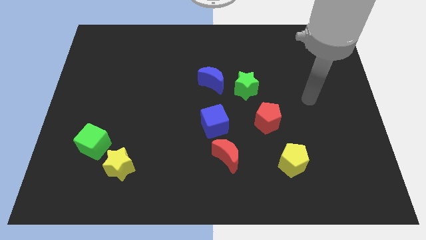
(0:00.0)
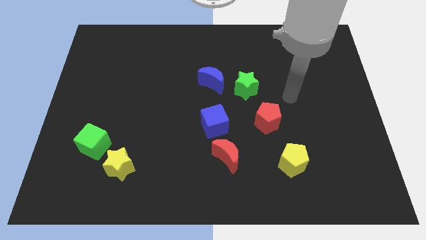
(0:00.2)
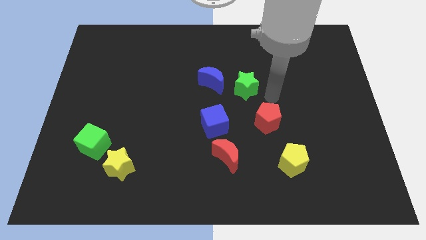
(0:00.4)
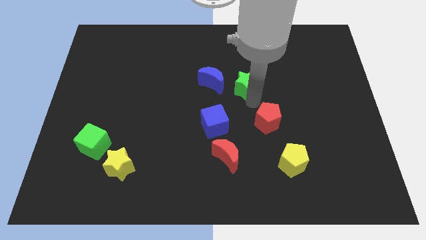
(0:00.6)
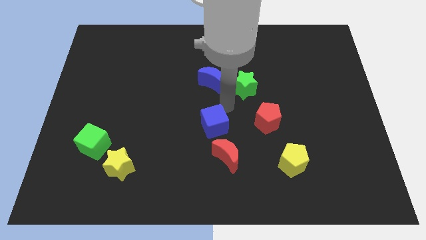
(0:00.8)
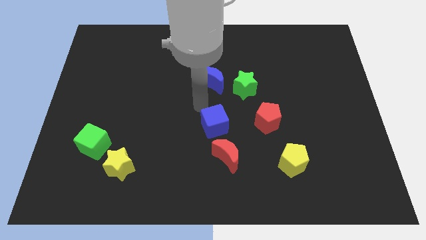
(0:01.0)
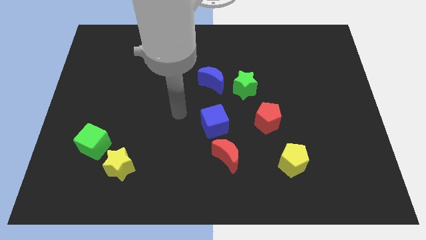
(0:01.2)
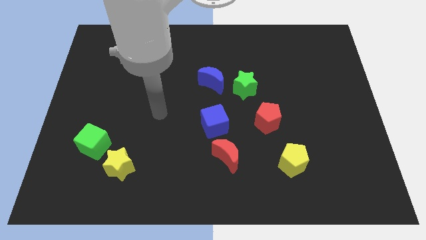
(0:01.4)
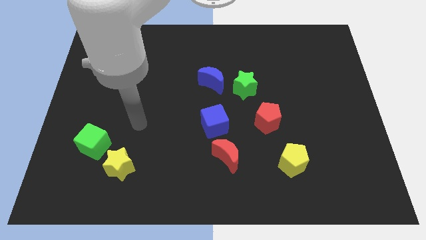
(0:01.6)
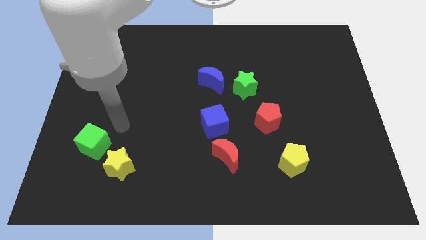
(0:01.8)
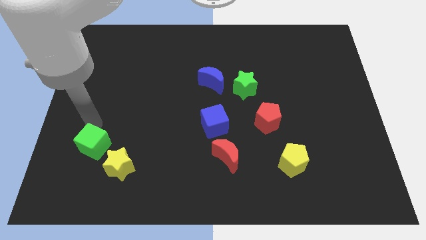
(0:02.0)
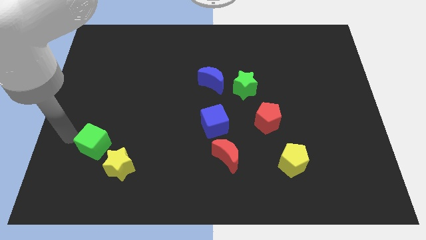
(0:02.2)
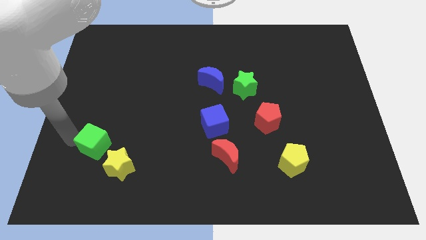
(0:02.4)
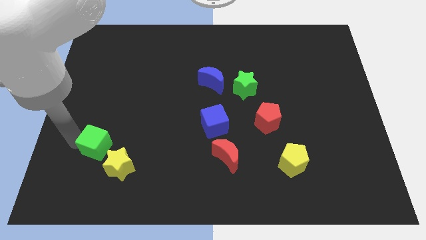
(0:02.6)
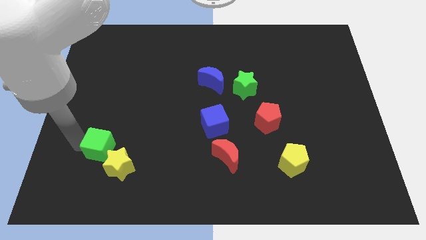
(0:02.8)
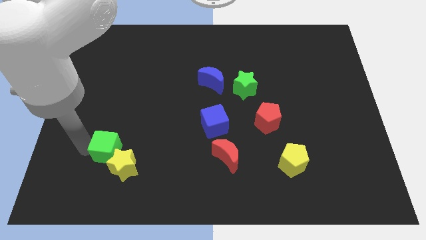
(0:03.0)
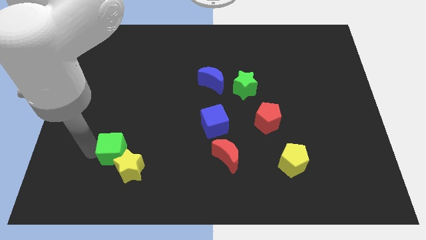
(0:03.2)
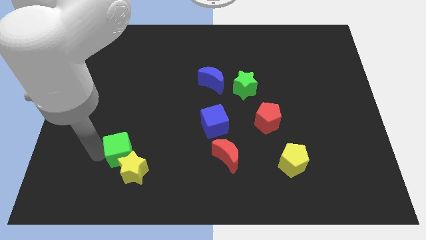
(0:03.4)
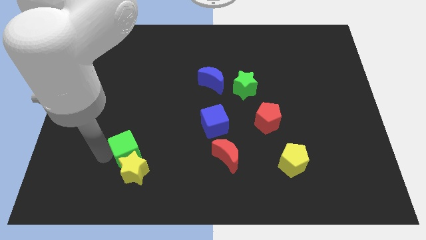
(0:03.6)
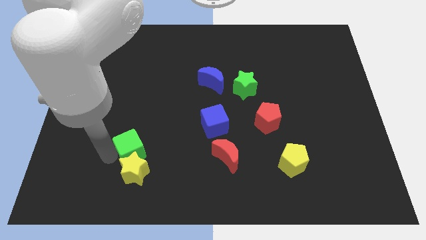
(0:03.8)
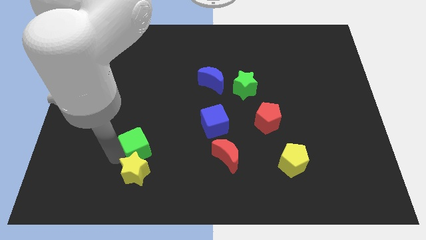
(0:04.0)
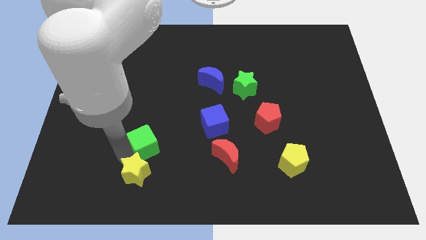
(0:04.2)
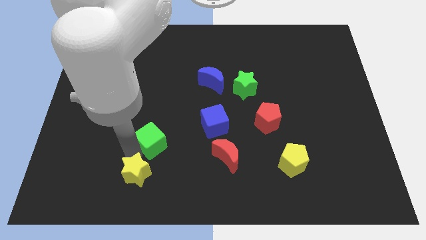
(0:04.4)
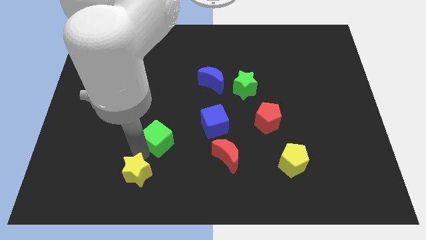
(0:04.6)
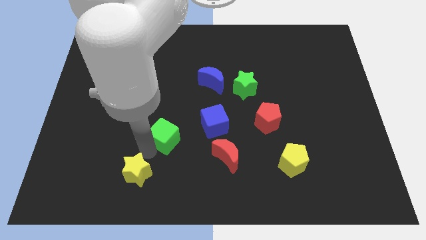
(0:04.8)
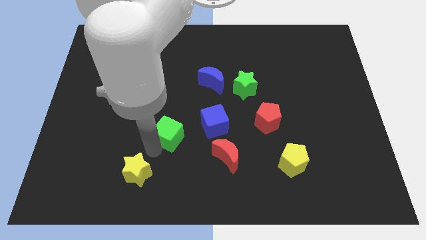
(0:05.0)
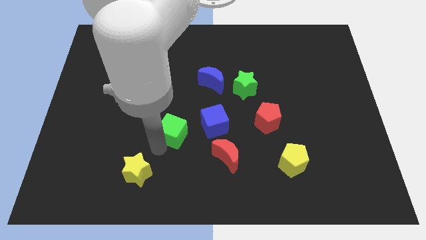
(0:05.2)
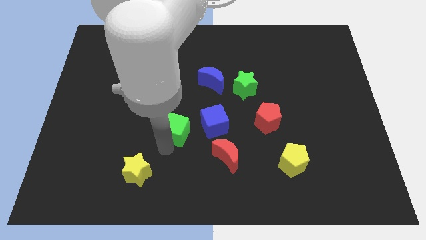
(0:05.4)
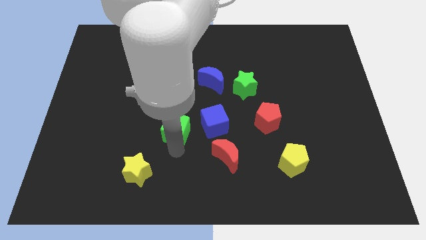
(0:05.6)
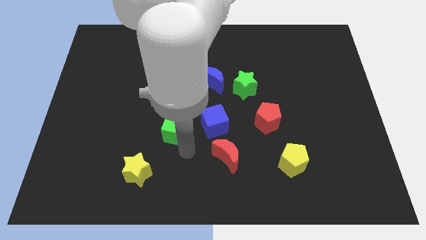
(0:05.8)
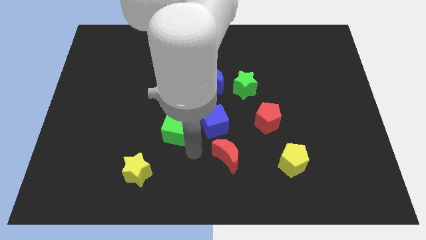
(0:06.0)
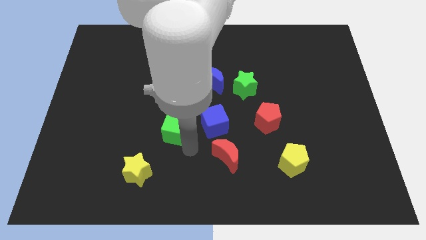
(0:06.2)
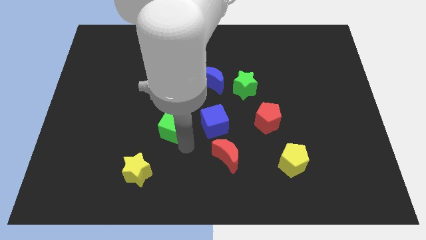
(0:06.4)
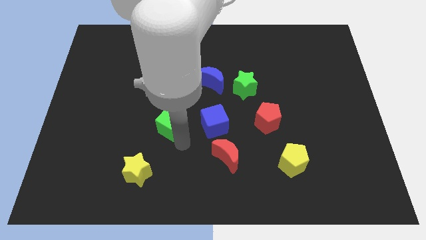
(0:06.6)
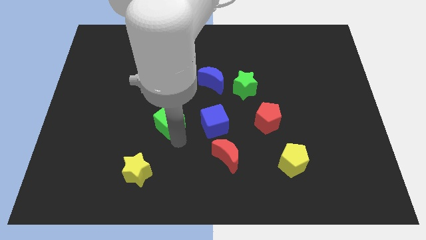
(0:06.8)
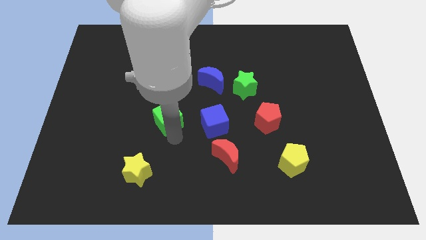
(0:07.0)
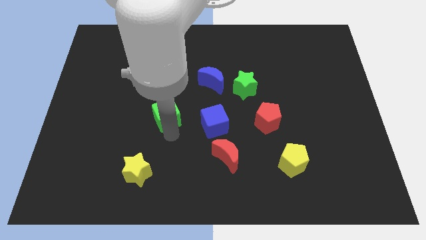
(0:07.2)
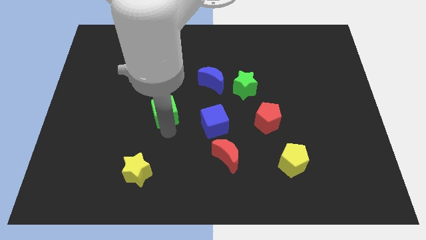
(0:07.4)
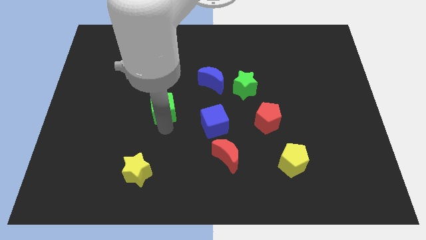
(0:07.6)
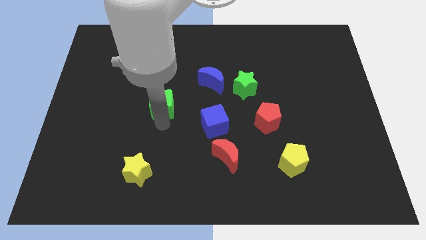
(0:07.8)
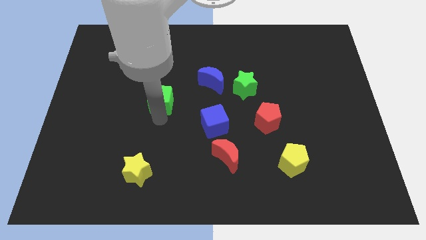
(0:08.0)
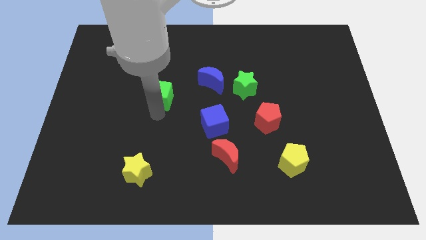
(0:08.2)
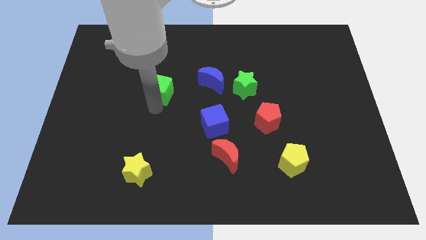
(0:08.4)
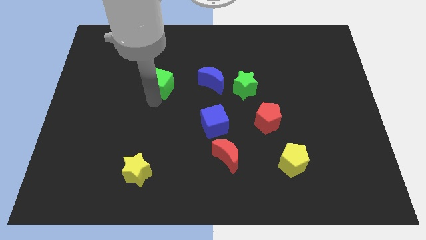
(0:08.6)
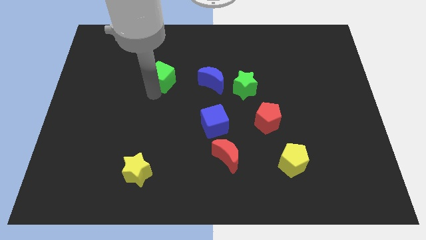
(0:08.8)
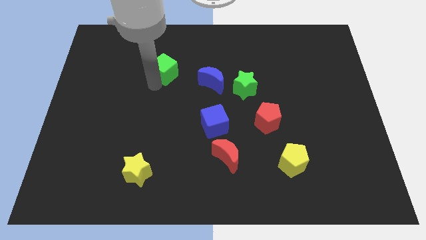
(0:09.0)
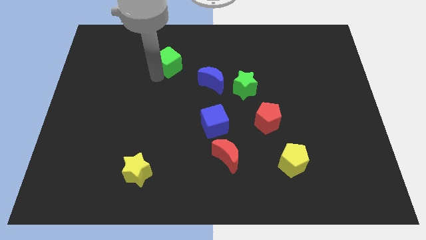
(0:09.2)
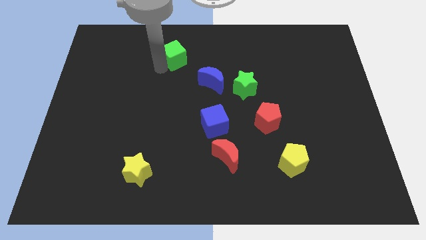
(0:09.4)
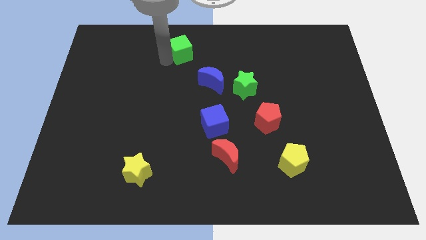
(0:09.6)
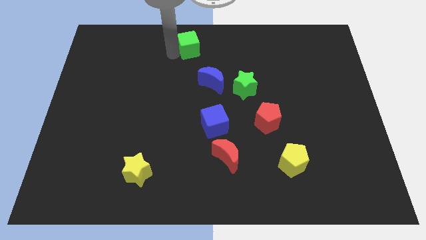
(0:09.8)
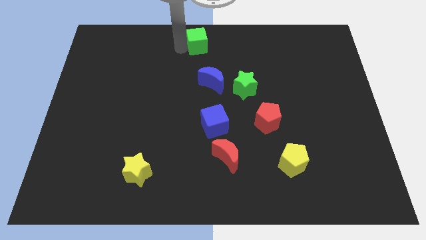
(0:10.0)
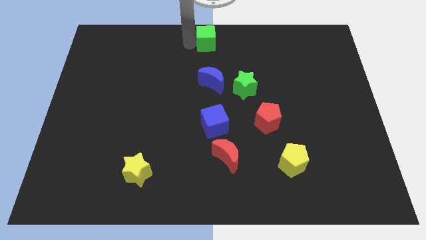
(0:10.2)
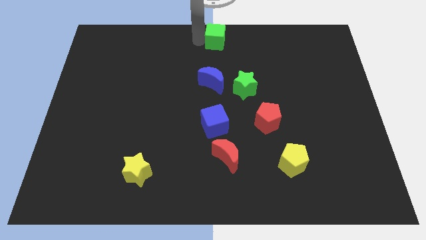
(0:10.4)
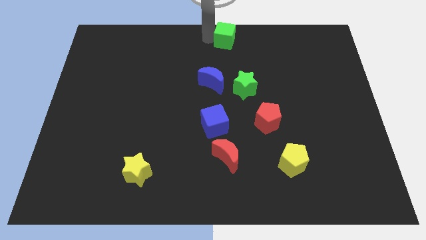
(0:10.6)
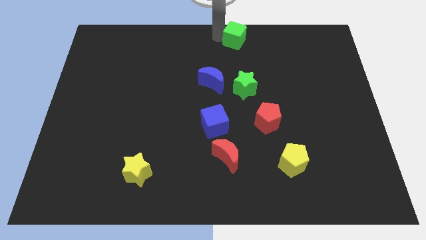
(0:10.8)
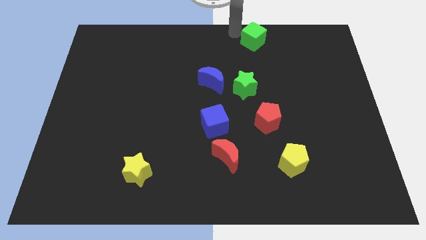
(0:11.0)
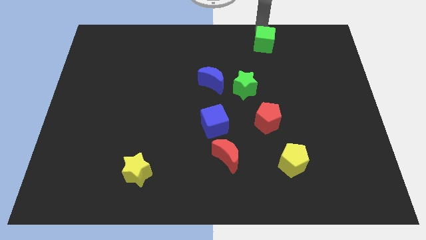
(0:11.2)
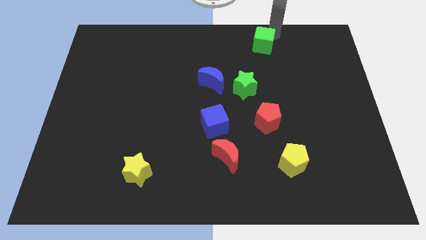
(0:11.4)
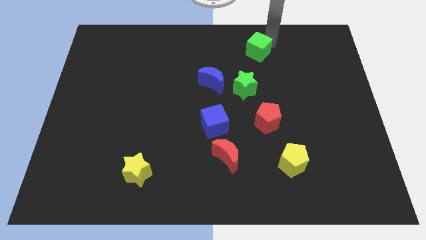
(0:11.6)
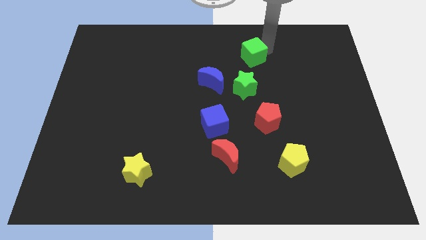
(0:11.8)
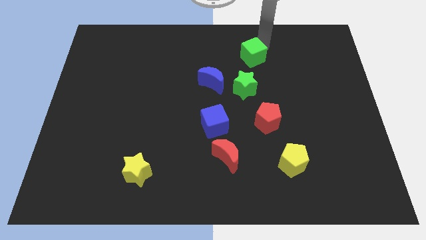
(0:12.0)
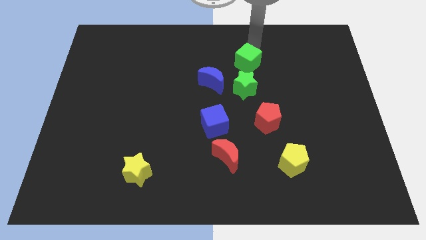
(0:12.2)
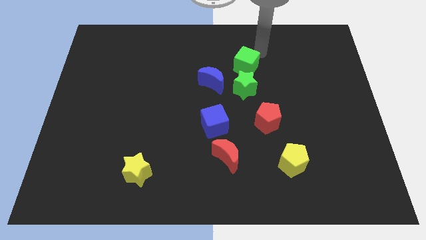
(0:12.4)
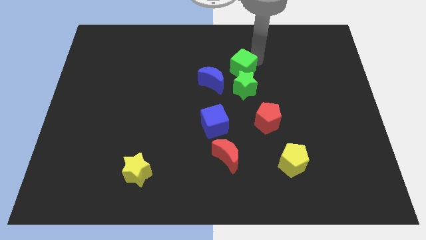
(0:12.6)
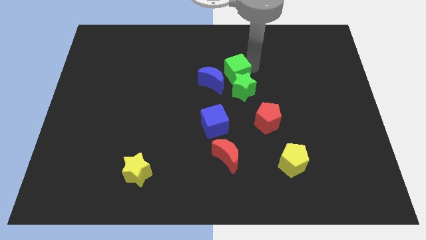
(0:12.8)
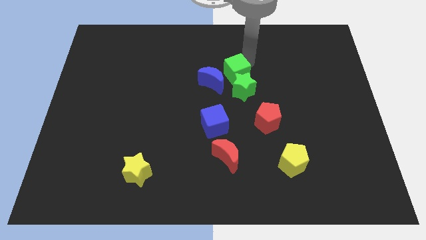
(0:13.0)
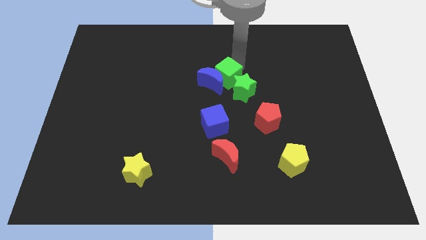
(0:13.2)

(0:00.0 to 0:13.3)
push the green cube to the bottom right side of the blue moon
